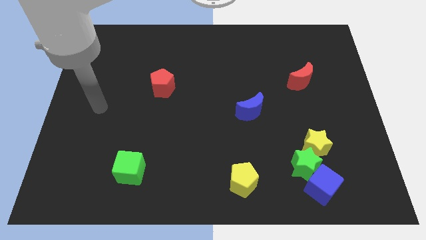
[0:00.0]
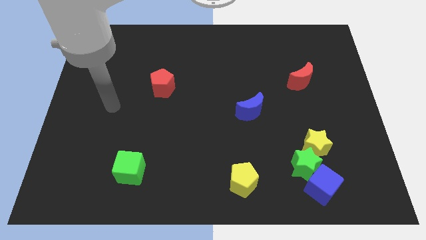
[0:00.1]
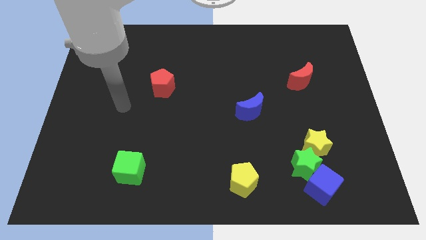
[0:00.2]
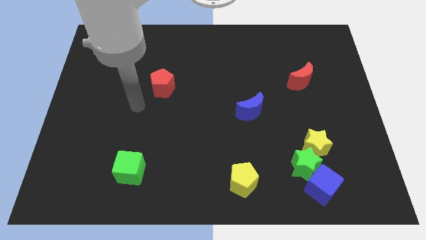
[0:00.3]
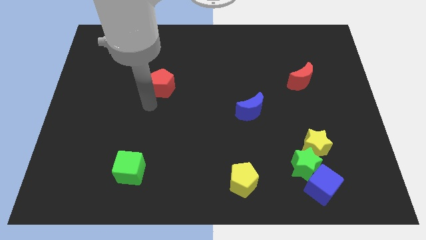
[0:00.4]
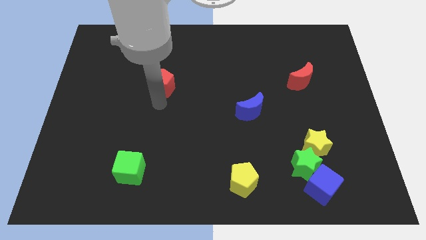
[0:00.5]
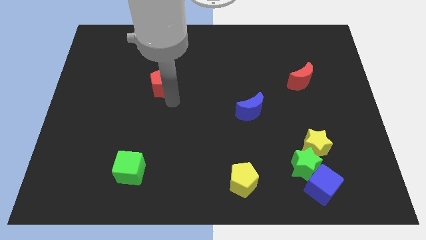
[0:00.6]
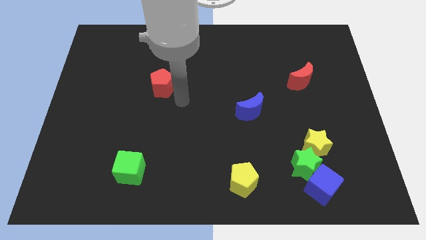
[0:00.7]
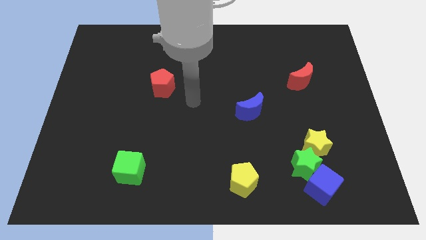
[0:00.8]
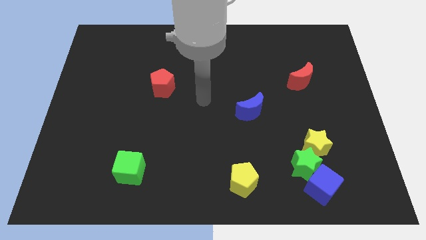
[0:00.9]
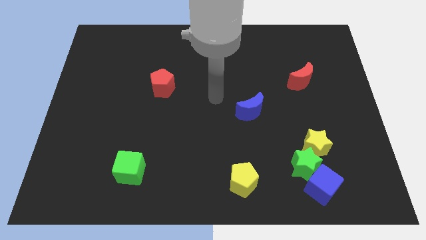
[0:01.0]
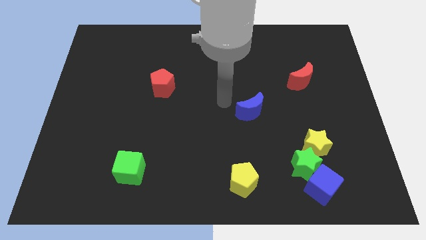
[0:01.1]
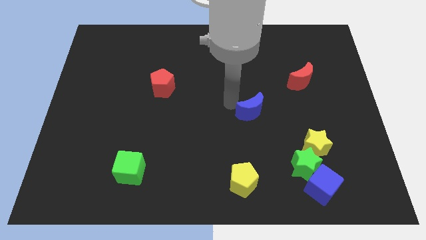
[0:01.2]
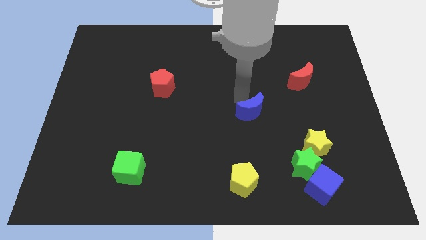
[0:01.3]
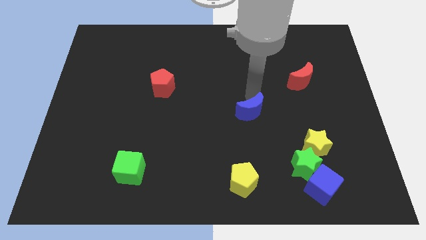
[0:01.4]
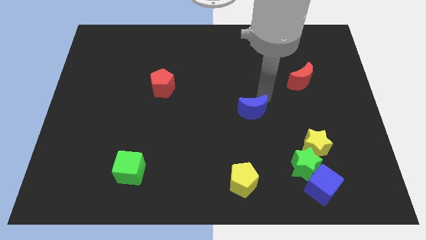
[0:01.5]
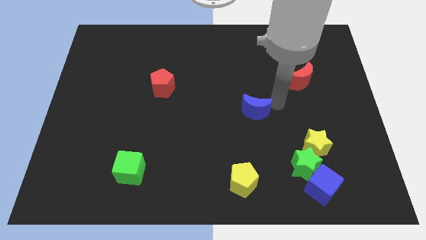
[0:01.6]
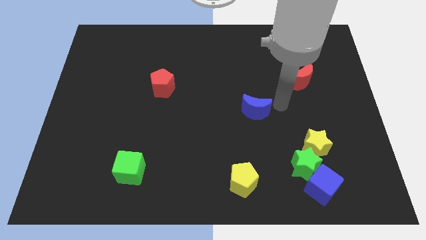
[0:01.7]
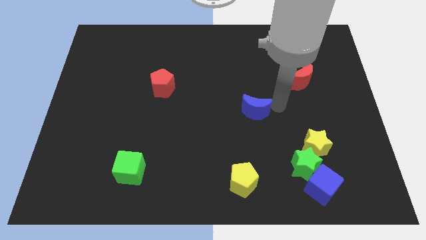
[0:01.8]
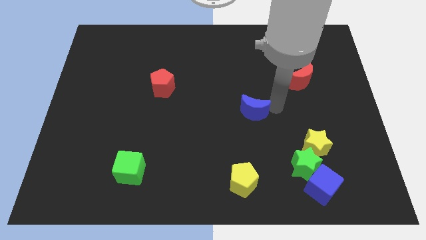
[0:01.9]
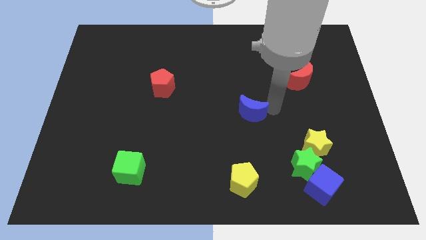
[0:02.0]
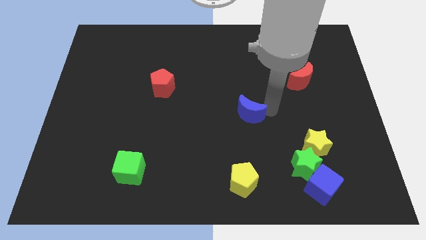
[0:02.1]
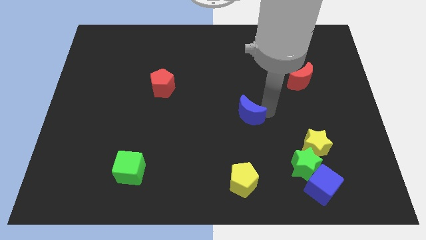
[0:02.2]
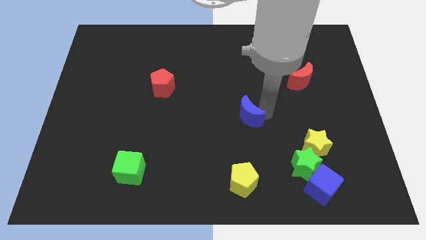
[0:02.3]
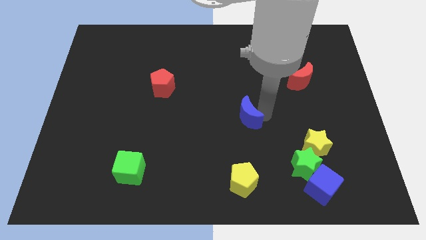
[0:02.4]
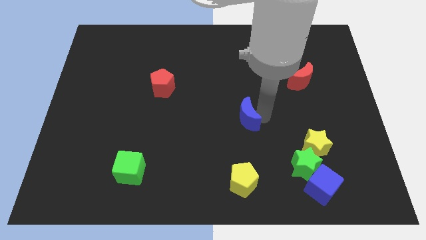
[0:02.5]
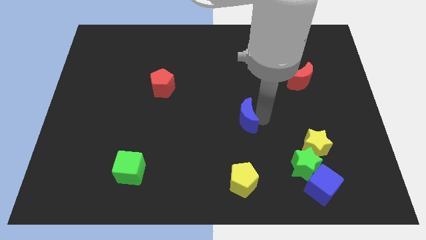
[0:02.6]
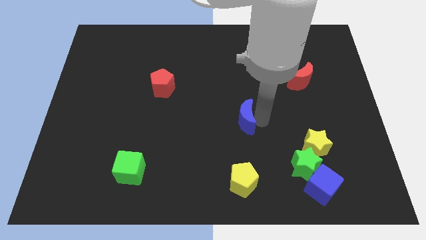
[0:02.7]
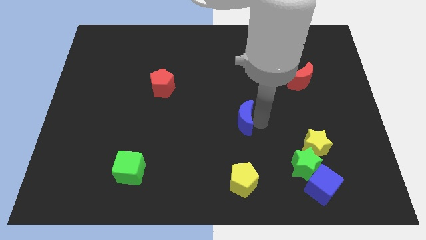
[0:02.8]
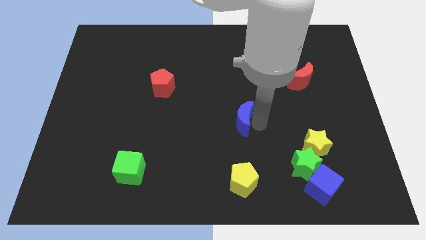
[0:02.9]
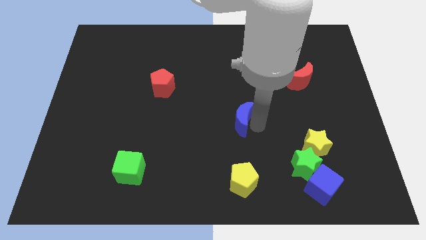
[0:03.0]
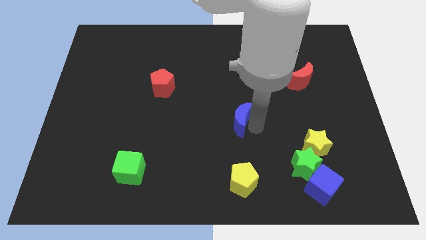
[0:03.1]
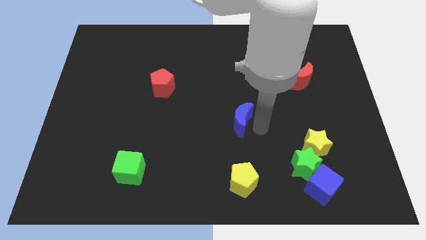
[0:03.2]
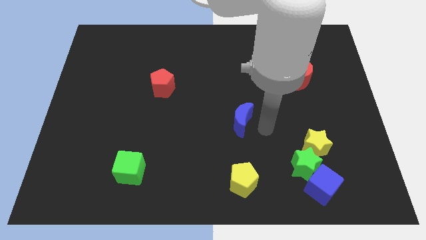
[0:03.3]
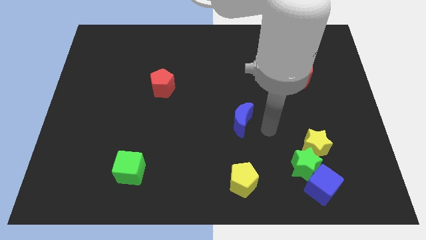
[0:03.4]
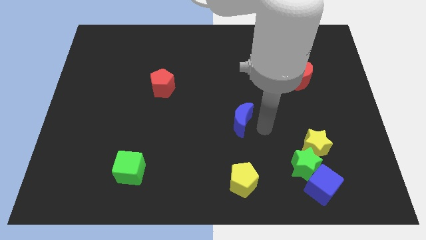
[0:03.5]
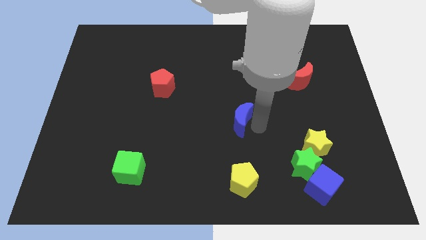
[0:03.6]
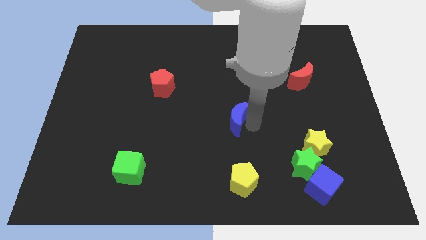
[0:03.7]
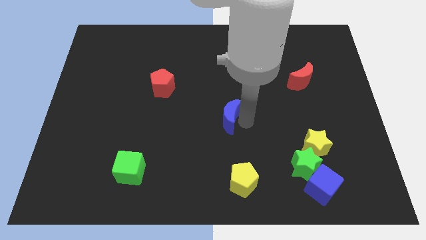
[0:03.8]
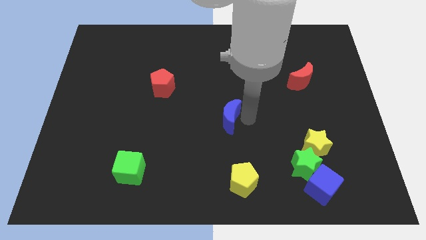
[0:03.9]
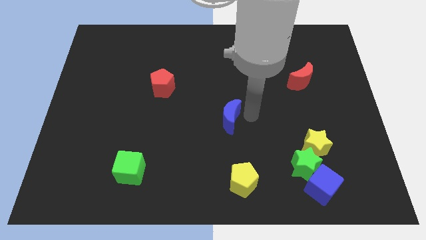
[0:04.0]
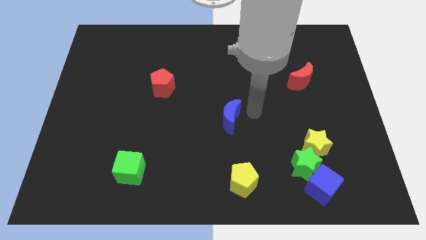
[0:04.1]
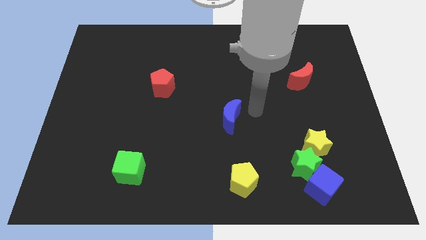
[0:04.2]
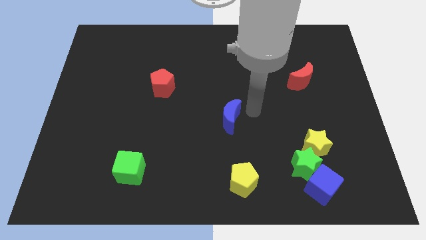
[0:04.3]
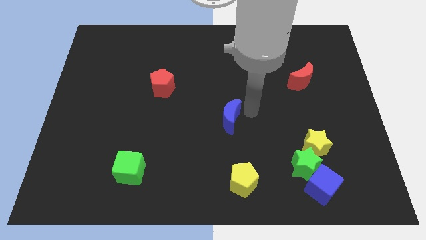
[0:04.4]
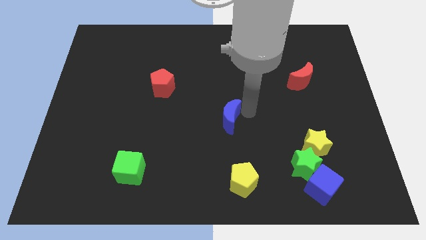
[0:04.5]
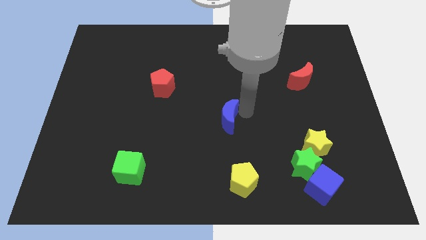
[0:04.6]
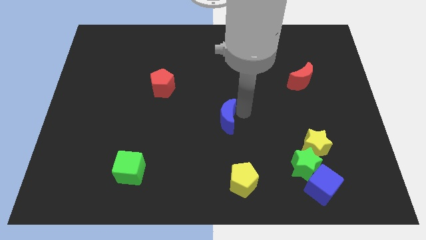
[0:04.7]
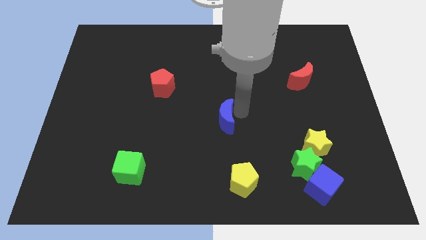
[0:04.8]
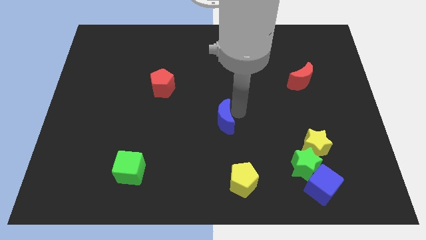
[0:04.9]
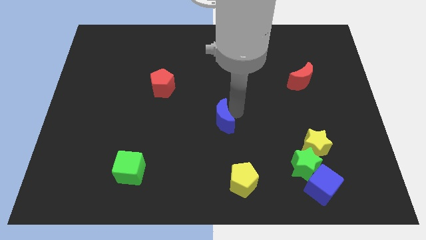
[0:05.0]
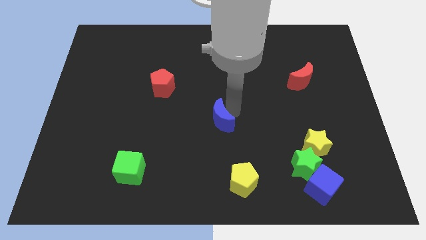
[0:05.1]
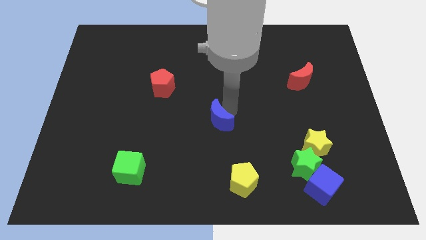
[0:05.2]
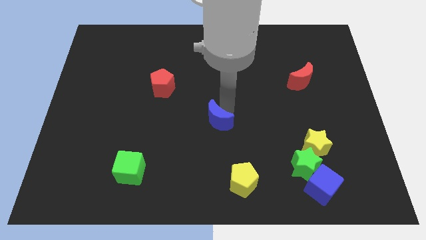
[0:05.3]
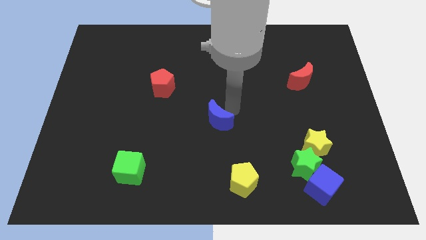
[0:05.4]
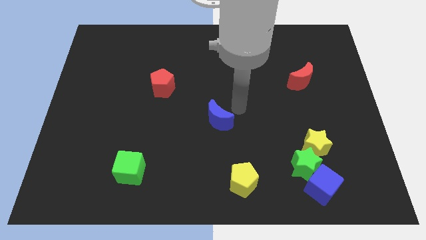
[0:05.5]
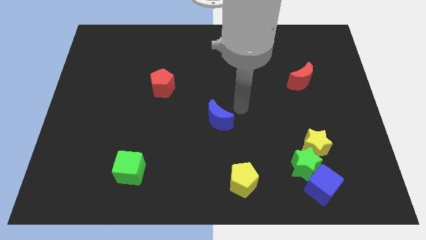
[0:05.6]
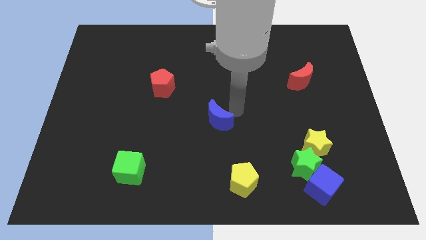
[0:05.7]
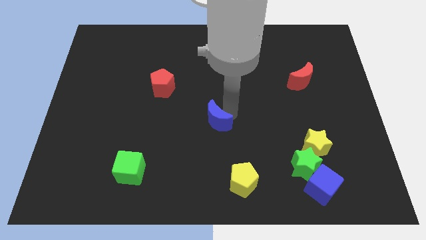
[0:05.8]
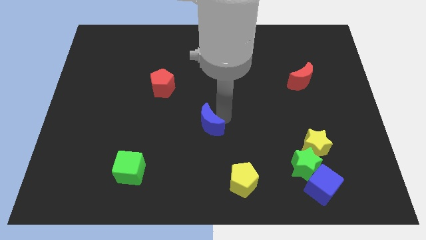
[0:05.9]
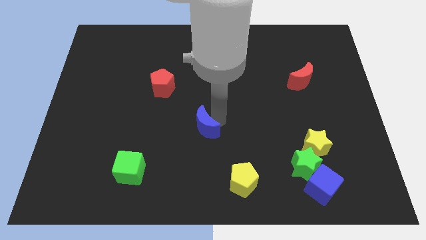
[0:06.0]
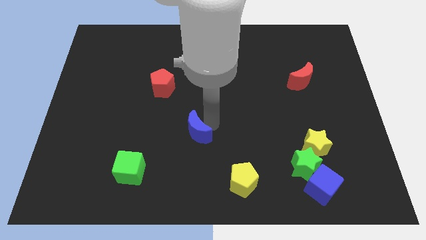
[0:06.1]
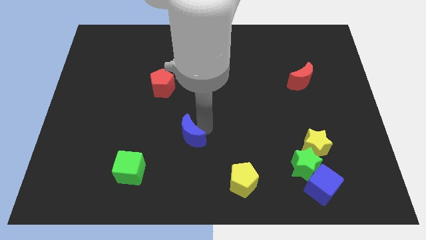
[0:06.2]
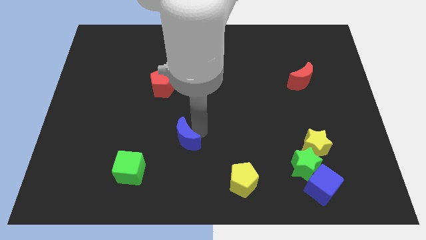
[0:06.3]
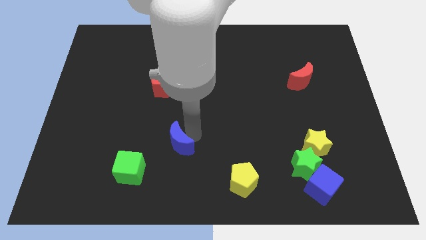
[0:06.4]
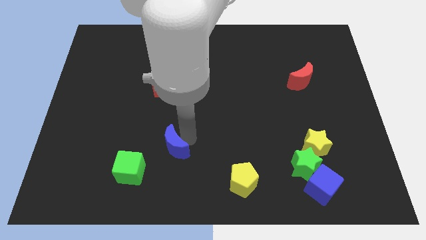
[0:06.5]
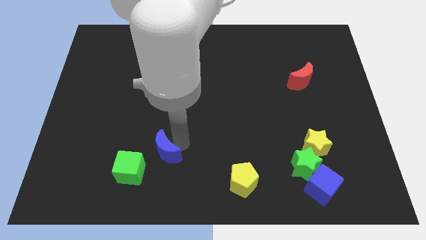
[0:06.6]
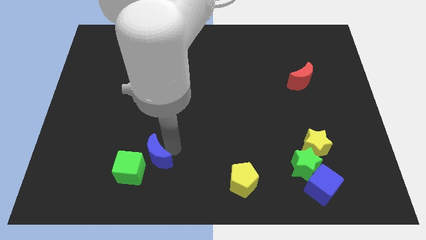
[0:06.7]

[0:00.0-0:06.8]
put the blue moon close to the green cube
